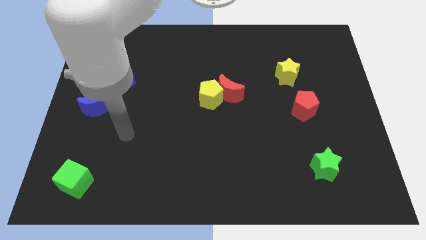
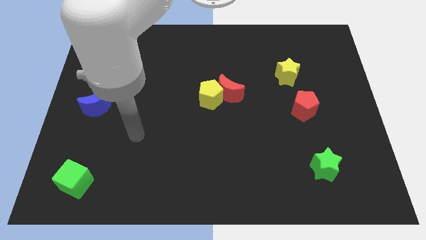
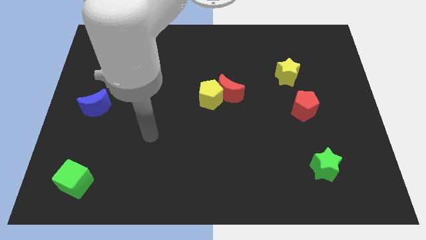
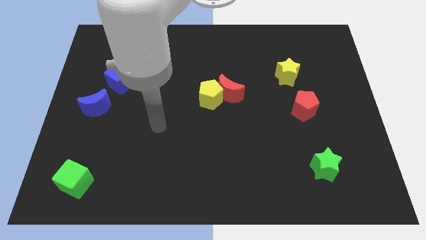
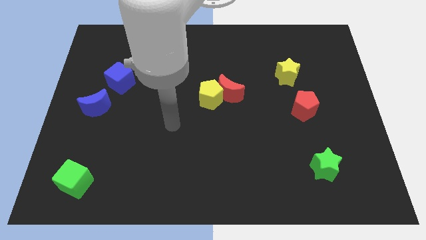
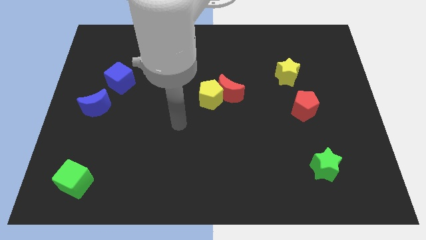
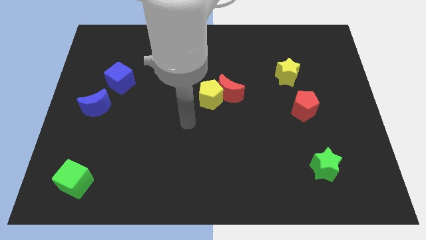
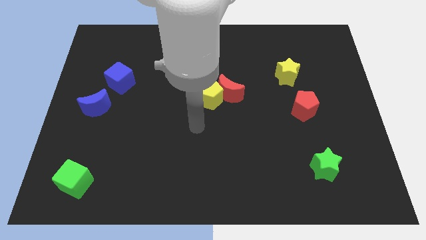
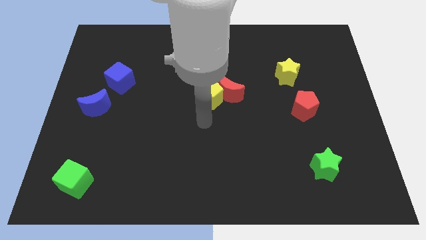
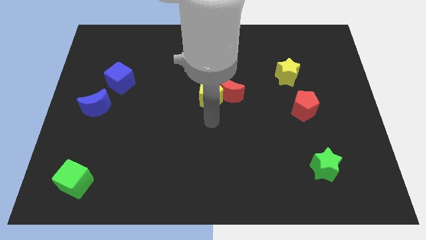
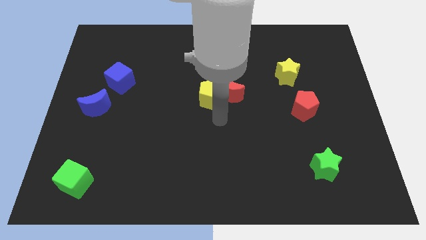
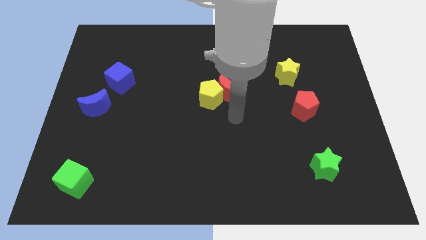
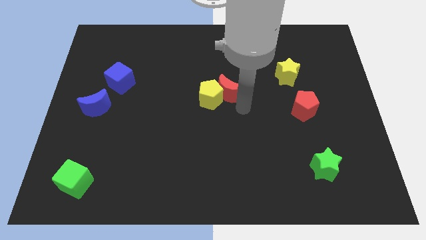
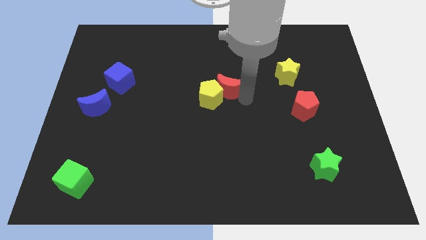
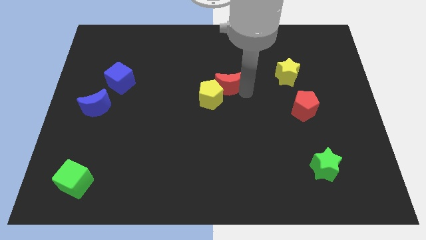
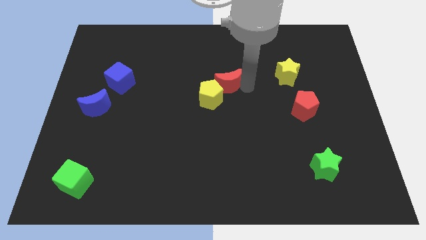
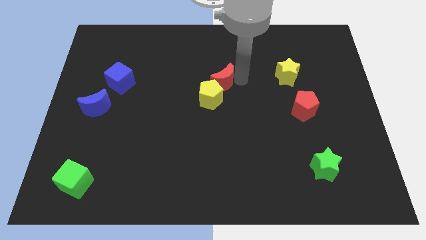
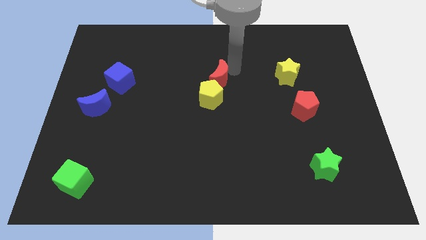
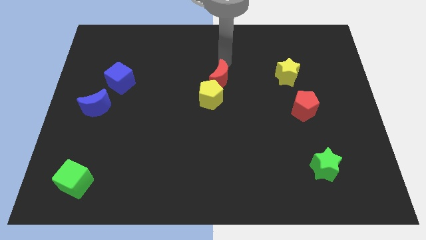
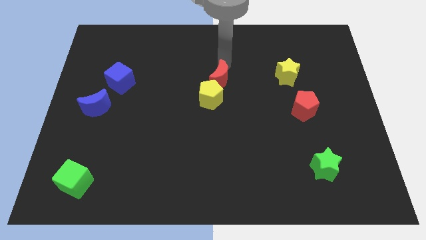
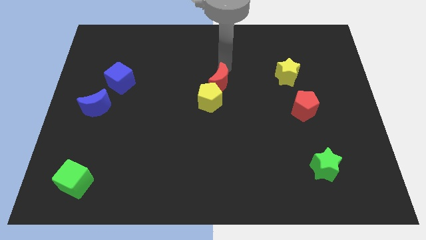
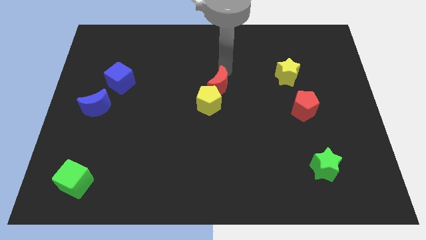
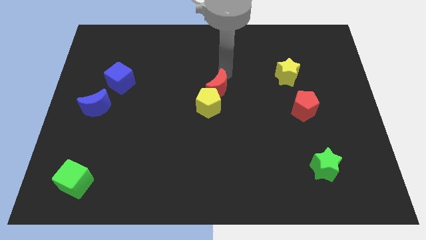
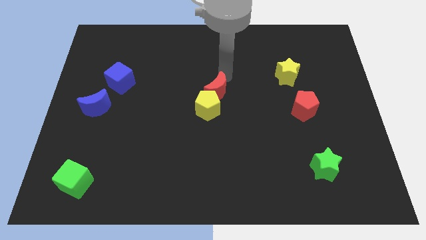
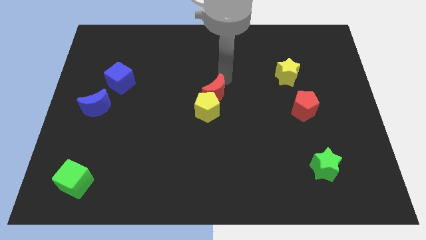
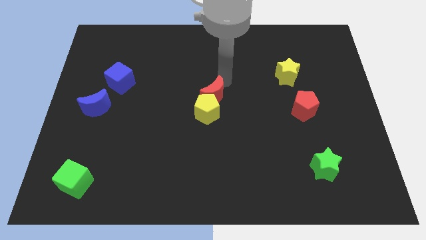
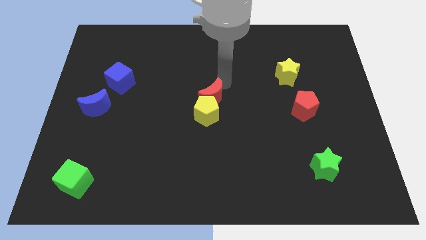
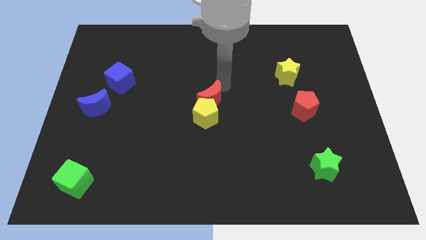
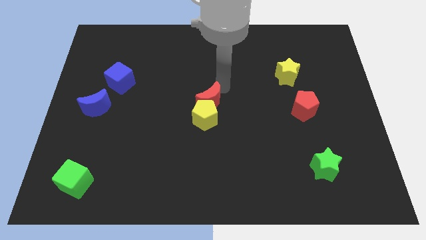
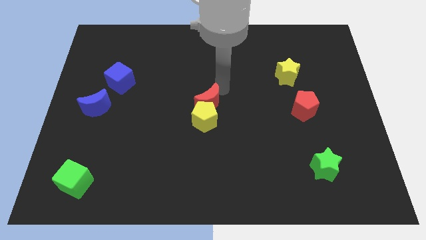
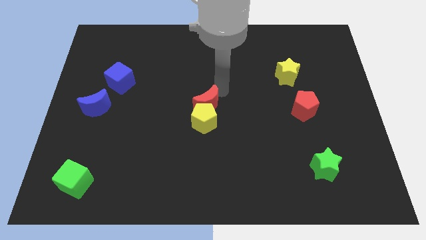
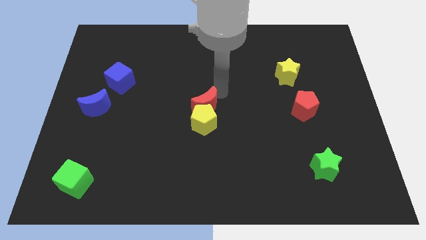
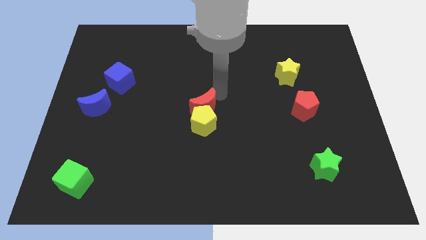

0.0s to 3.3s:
slightly move the red moon downwards and left diagonally

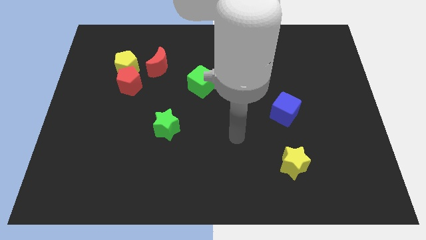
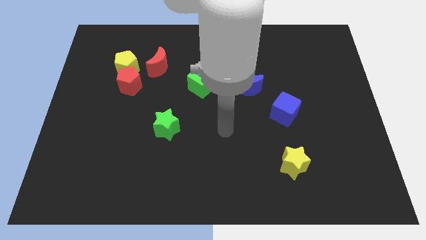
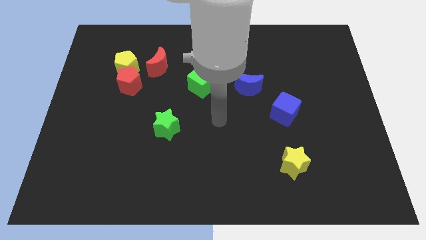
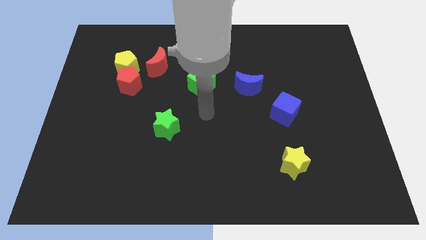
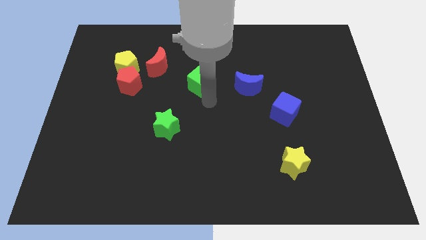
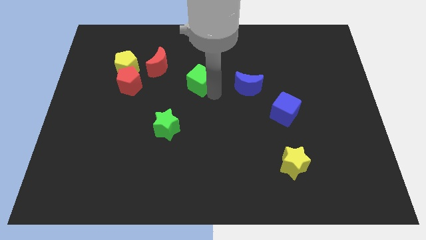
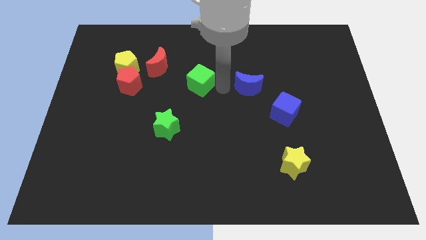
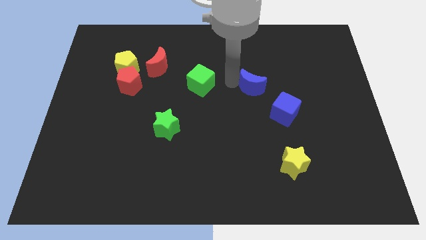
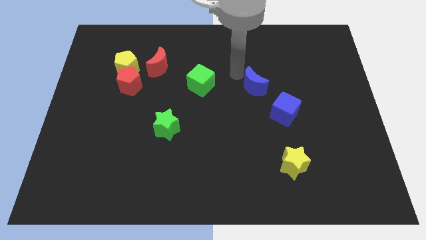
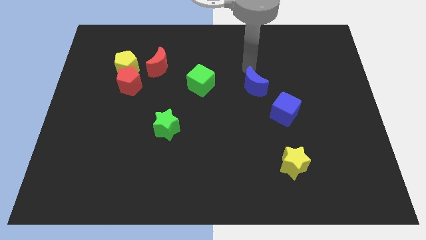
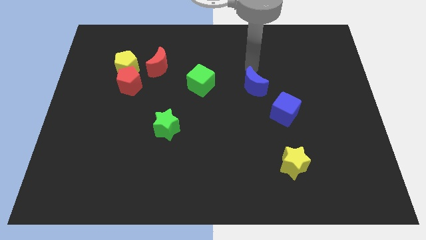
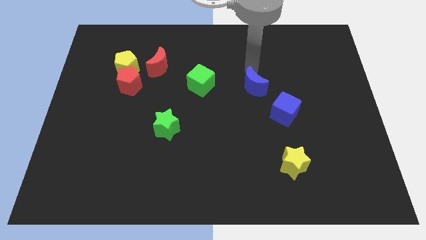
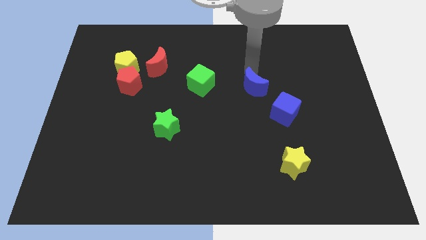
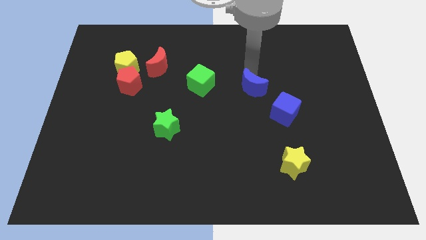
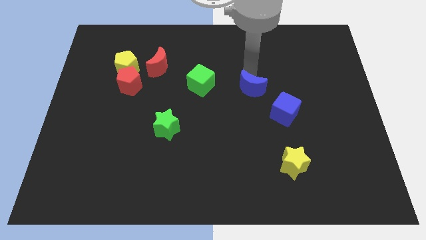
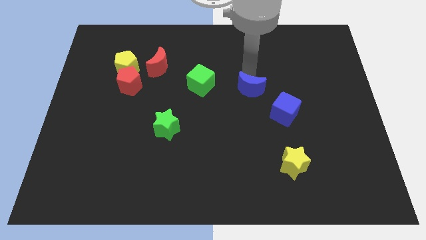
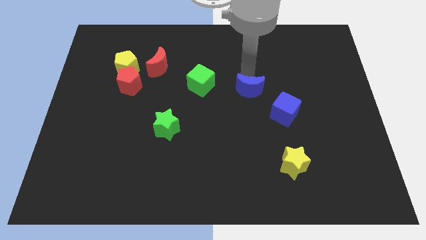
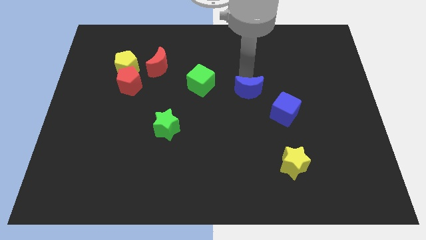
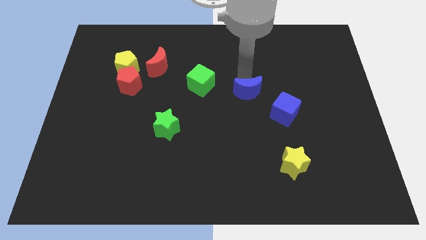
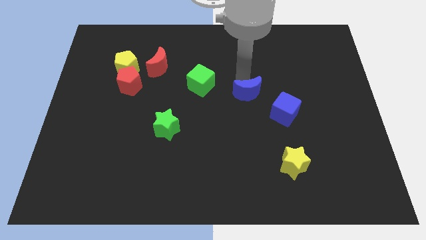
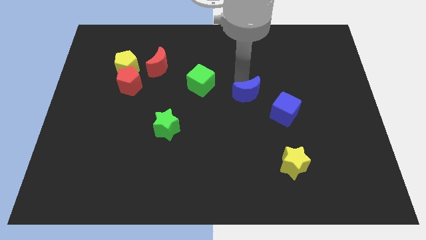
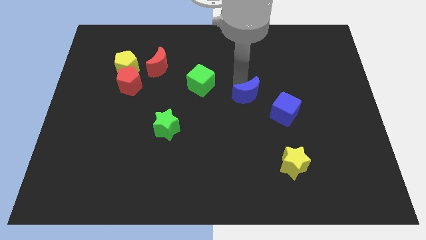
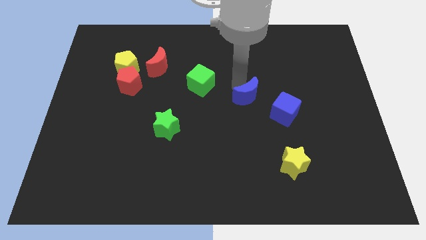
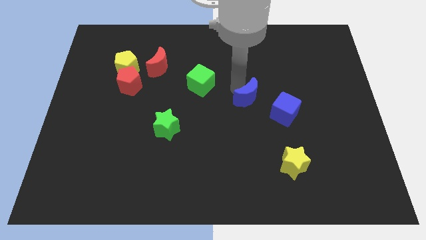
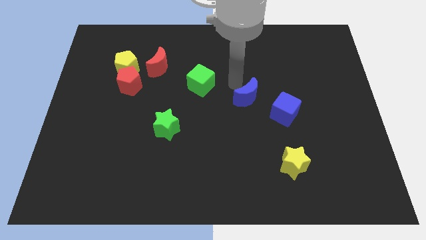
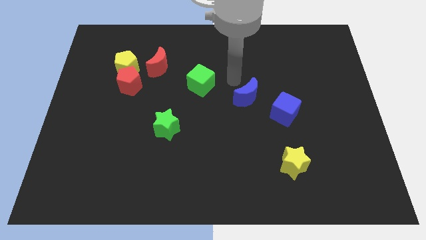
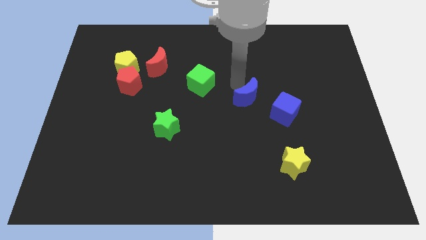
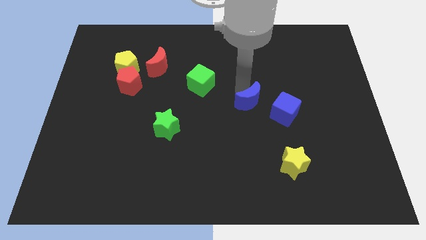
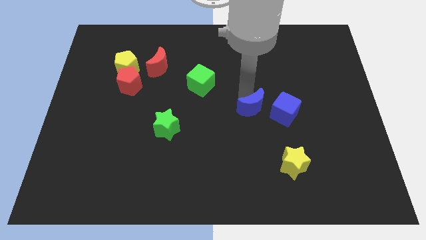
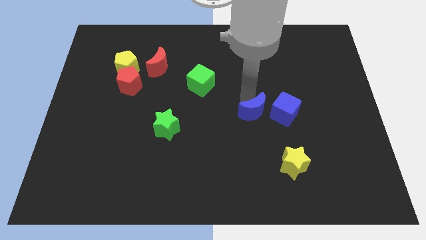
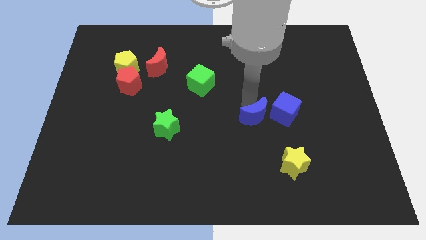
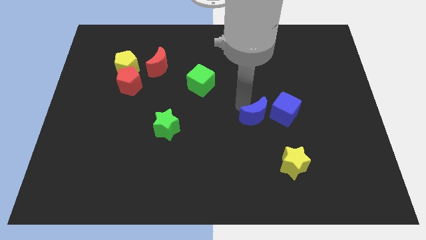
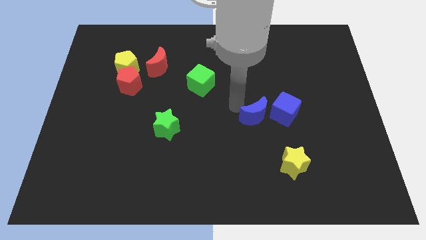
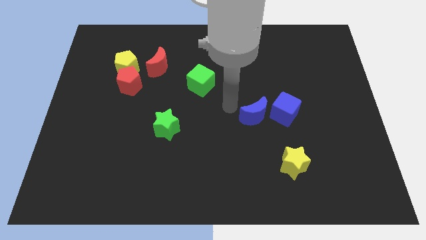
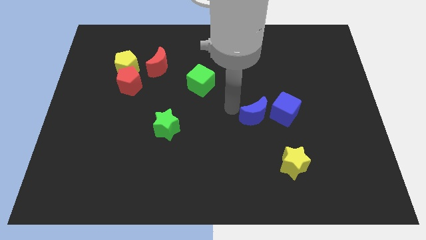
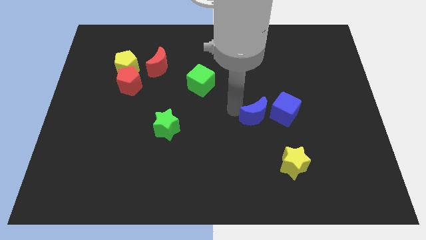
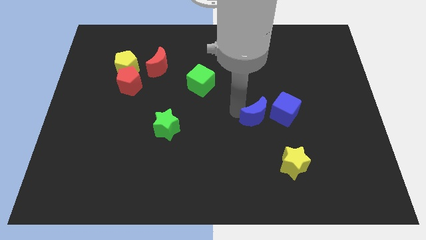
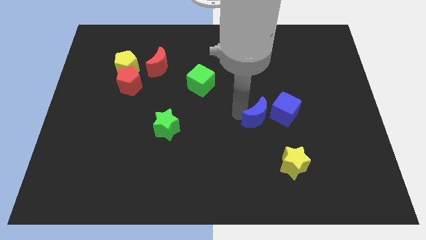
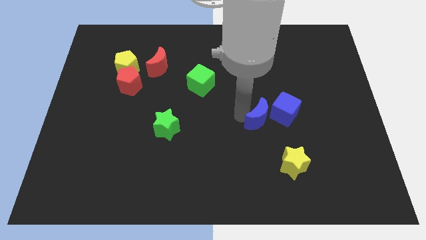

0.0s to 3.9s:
slide the blue moon diagonally down and right somewhat

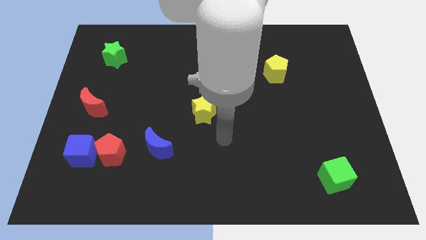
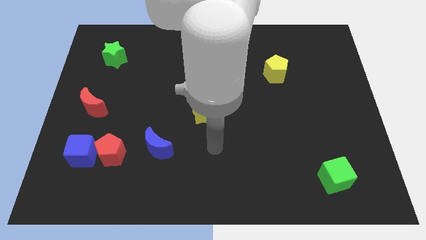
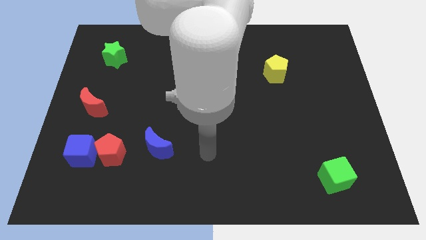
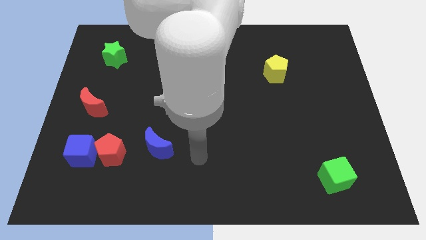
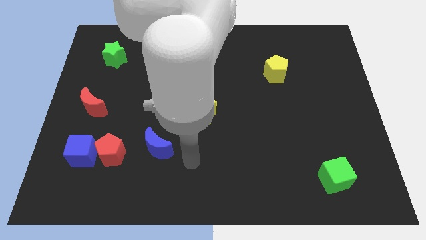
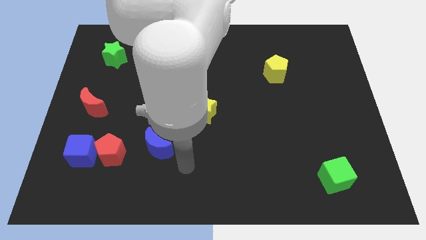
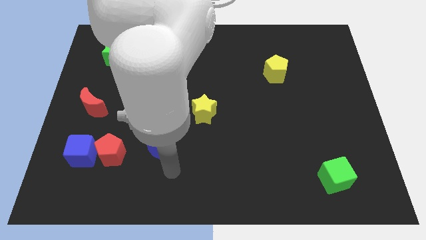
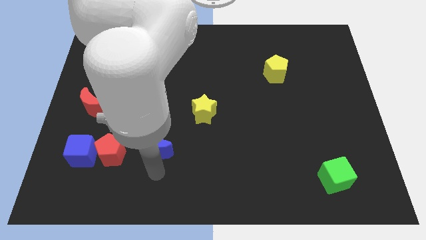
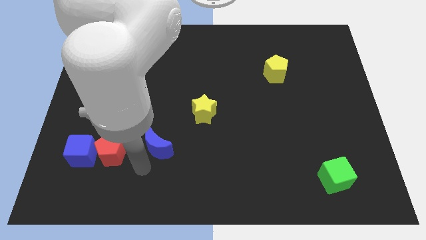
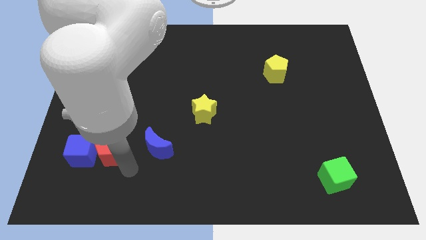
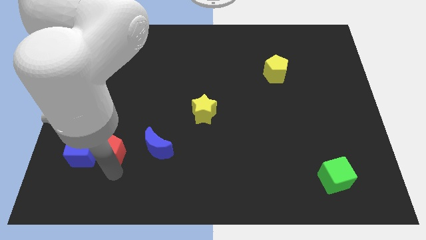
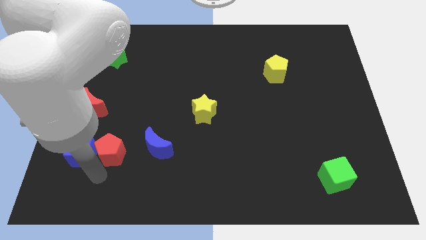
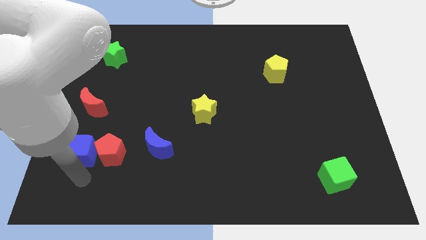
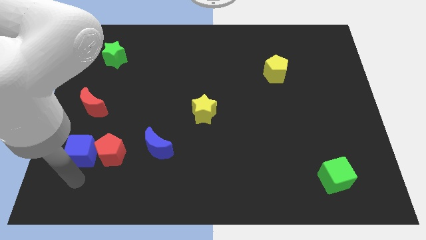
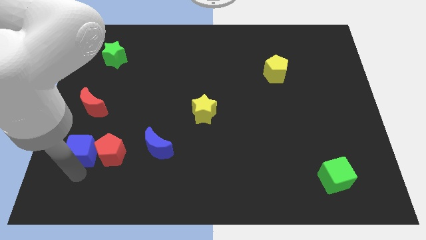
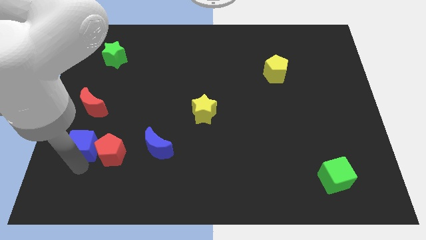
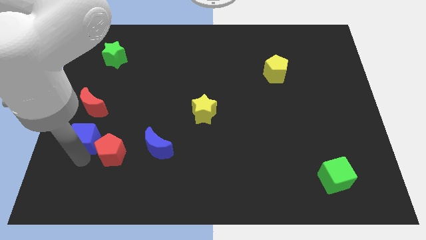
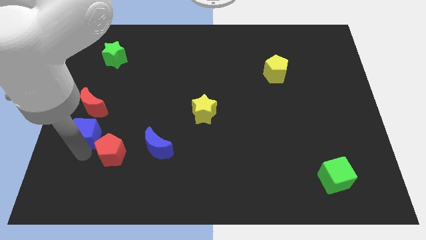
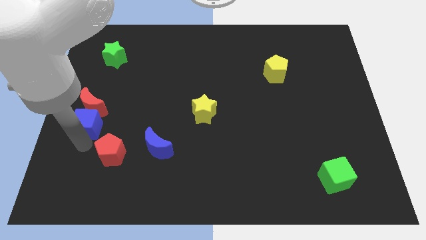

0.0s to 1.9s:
slide the blue cube up somewhat
